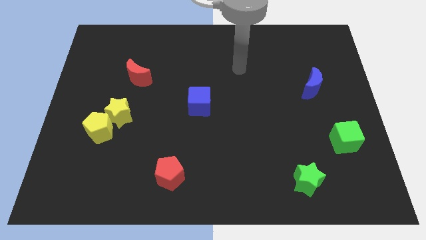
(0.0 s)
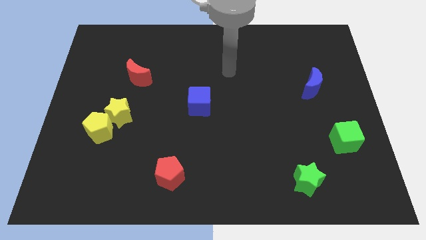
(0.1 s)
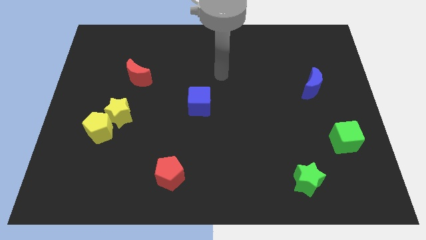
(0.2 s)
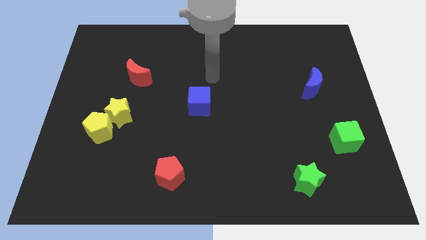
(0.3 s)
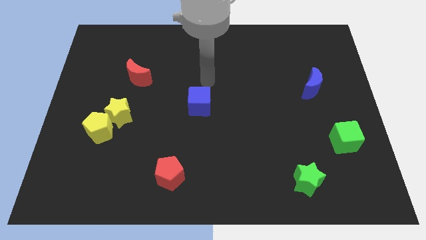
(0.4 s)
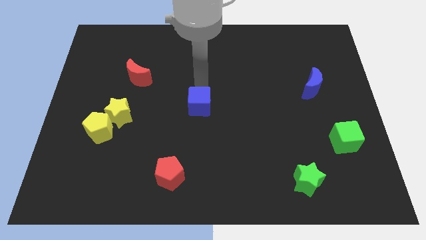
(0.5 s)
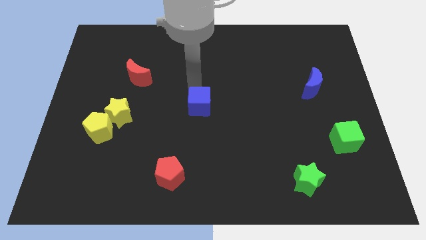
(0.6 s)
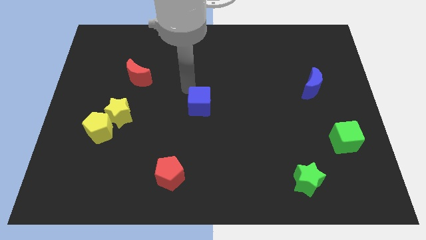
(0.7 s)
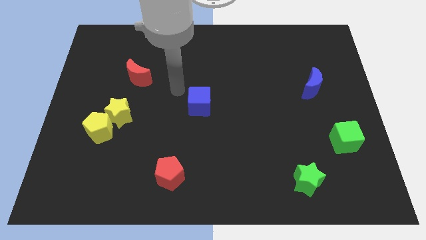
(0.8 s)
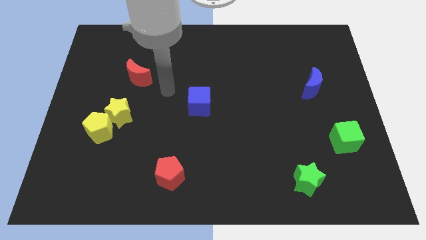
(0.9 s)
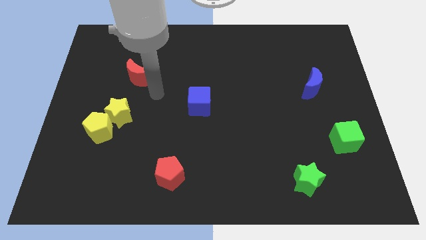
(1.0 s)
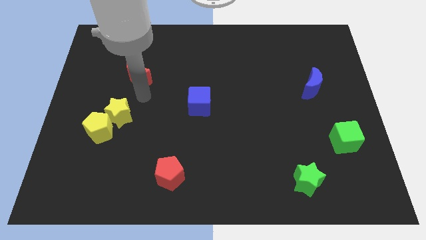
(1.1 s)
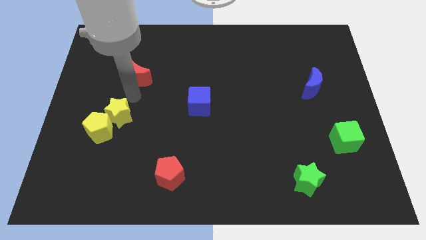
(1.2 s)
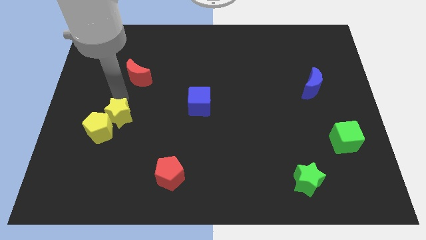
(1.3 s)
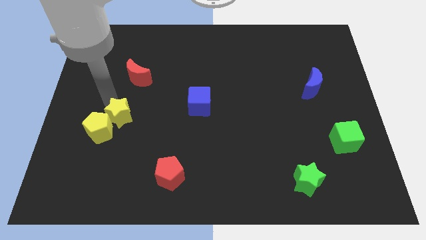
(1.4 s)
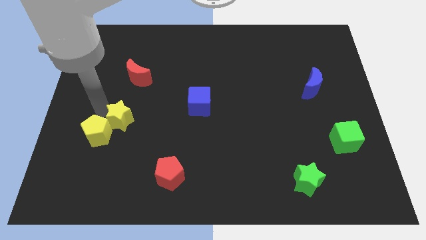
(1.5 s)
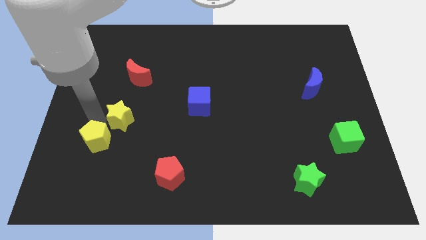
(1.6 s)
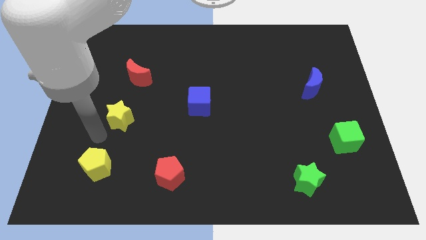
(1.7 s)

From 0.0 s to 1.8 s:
separate the yellow star from the yellow pentagon

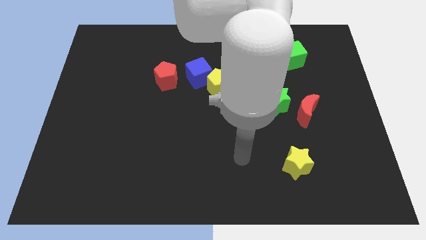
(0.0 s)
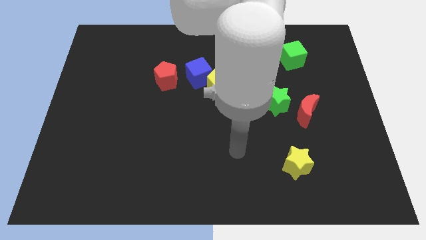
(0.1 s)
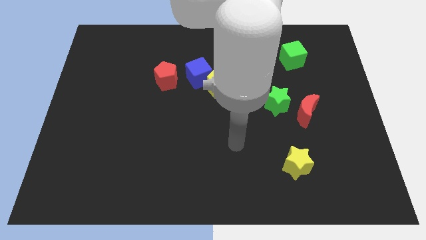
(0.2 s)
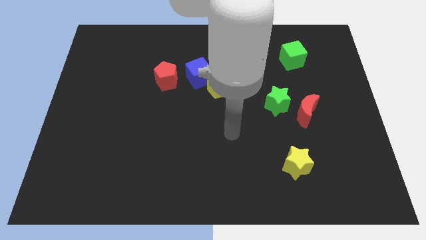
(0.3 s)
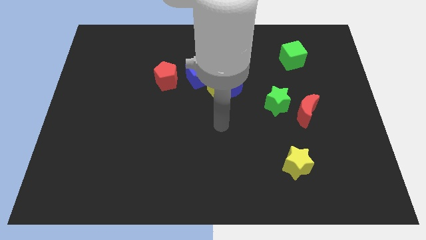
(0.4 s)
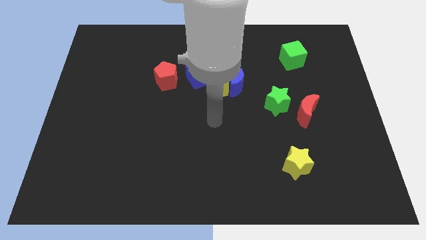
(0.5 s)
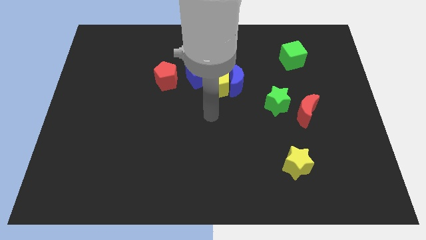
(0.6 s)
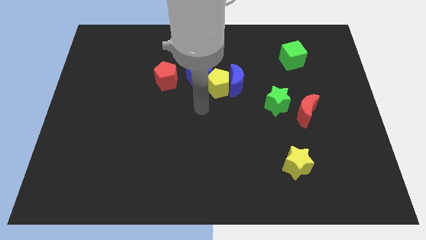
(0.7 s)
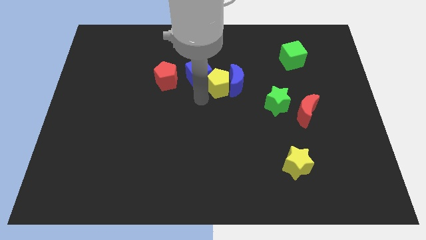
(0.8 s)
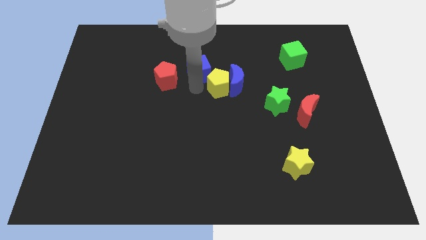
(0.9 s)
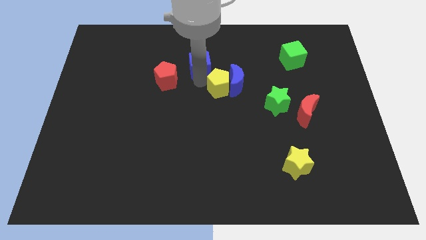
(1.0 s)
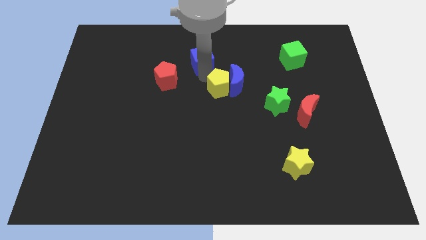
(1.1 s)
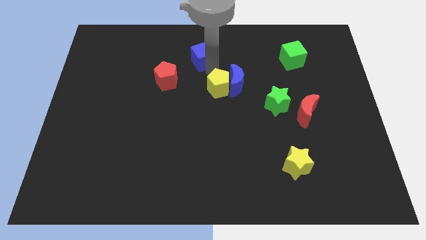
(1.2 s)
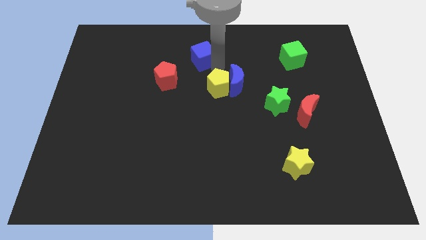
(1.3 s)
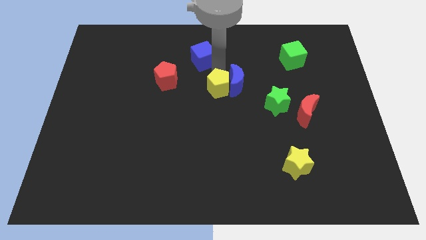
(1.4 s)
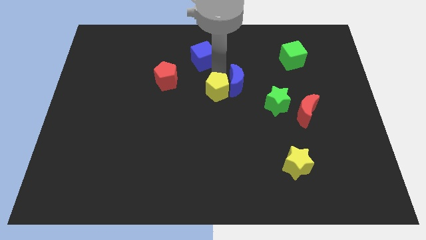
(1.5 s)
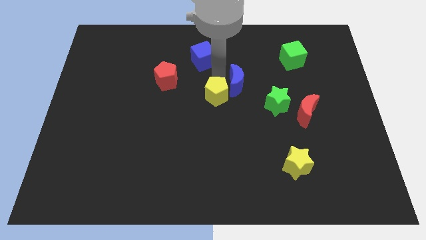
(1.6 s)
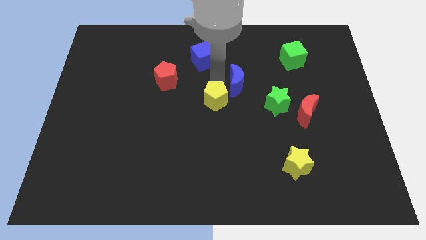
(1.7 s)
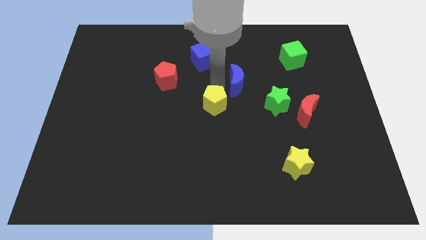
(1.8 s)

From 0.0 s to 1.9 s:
separate the yellow pentagon from the blue moon and blue cube

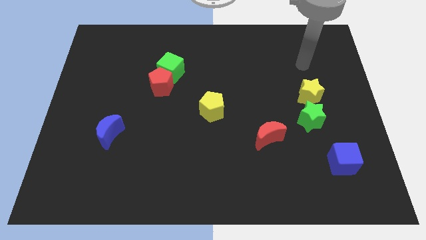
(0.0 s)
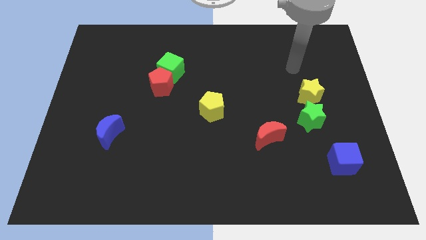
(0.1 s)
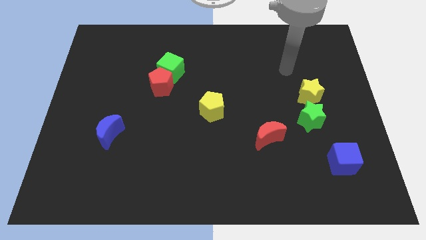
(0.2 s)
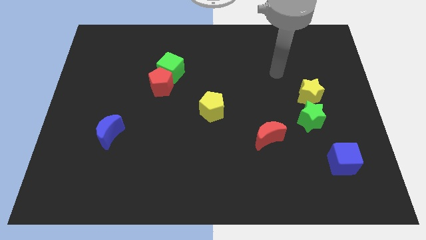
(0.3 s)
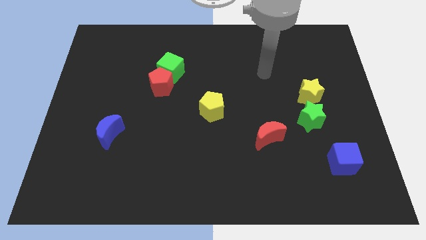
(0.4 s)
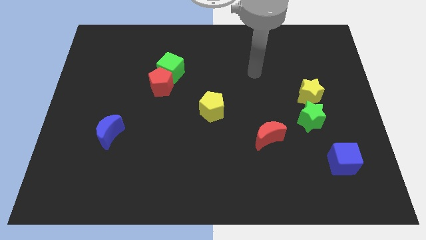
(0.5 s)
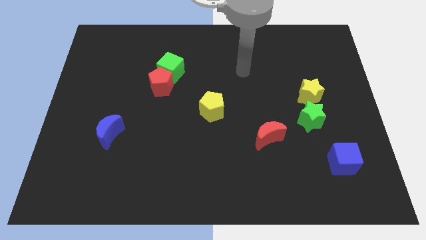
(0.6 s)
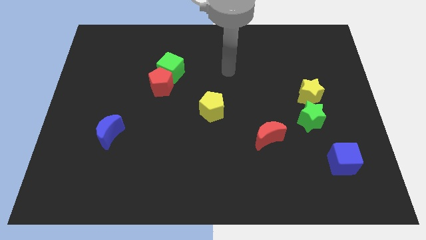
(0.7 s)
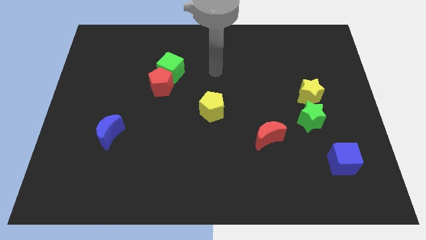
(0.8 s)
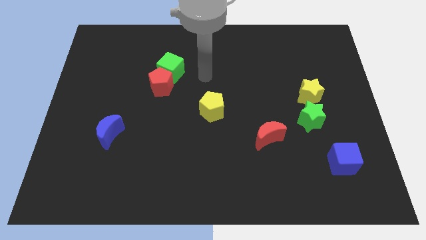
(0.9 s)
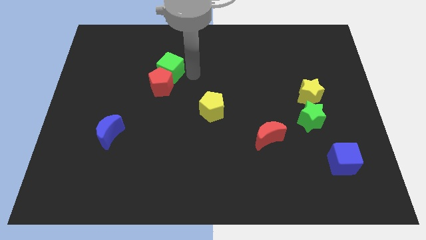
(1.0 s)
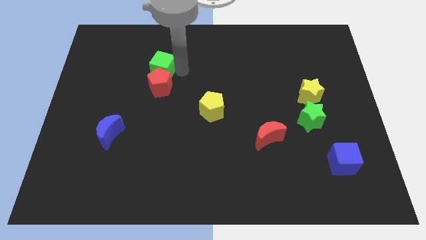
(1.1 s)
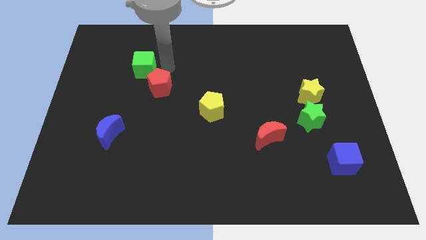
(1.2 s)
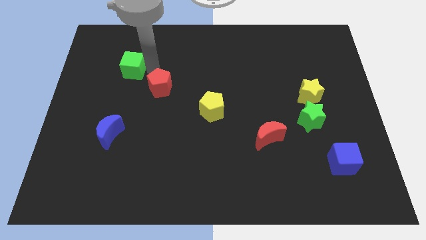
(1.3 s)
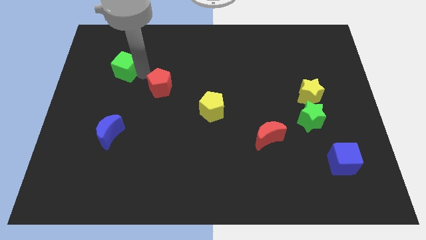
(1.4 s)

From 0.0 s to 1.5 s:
separate the red pentagon from the green cube

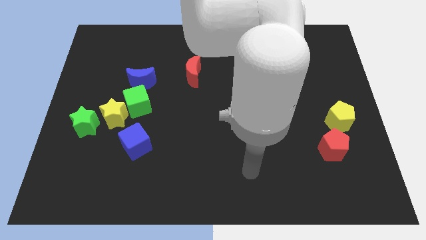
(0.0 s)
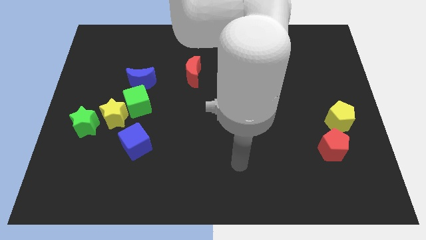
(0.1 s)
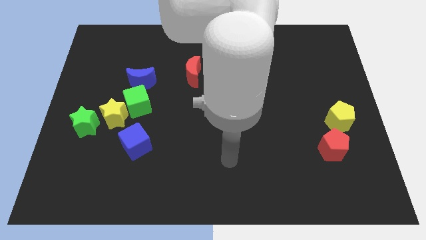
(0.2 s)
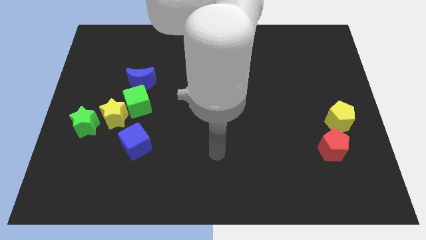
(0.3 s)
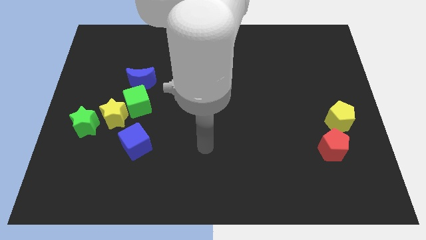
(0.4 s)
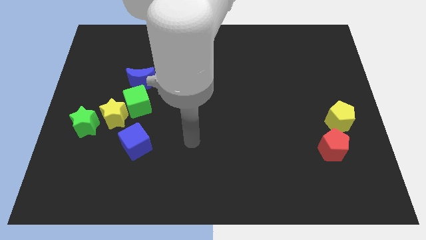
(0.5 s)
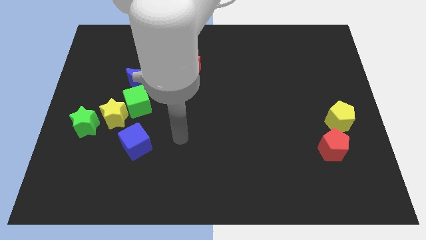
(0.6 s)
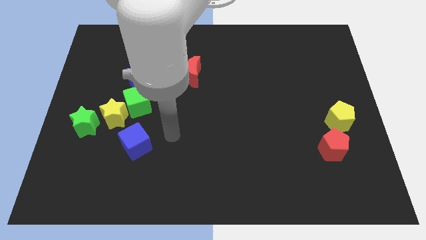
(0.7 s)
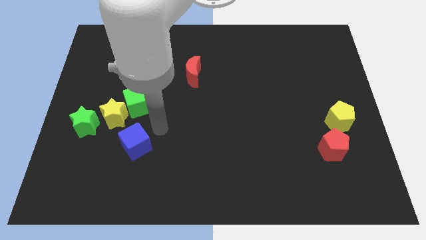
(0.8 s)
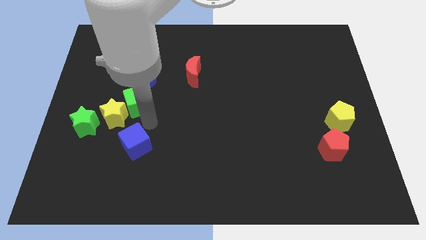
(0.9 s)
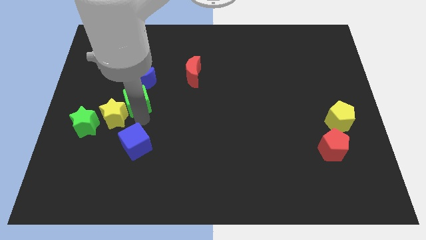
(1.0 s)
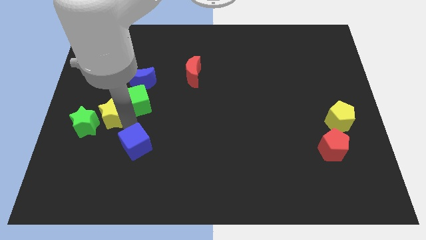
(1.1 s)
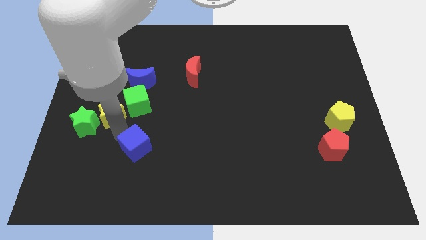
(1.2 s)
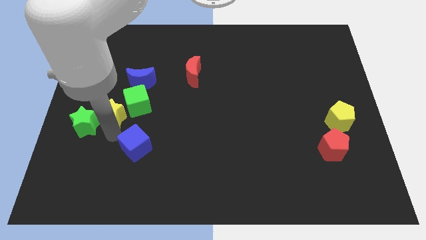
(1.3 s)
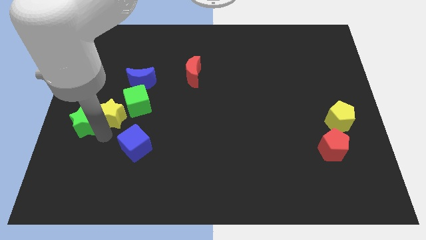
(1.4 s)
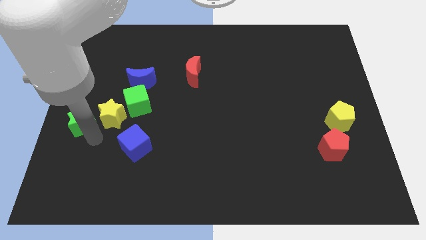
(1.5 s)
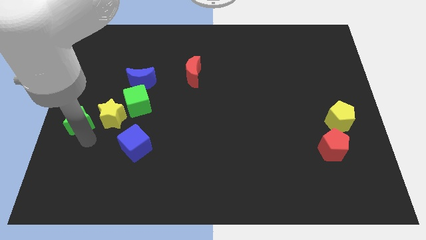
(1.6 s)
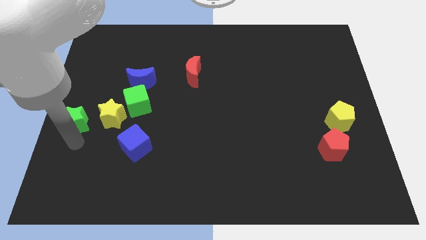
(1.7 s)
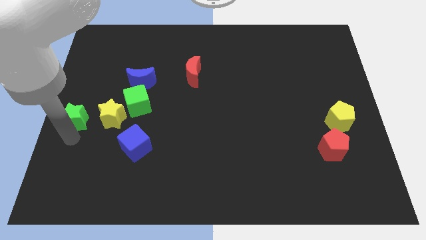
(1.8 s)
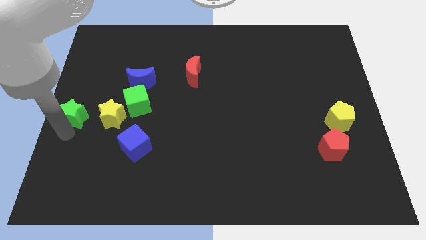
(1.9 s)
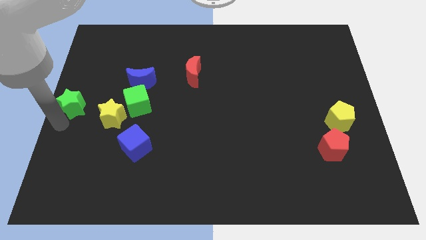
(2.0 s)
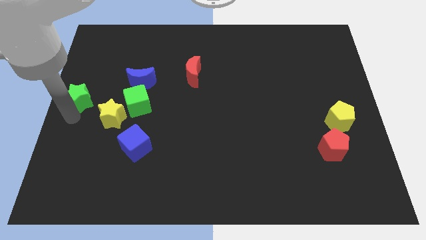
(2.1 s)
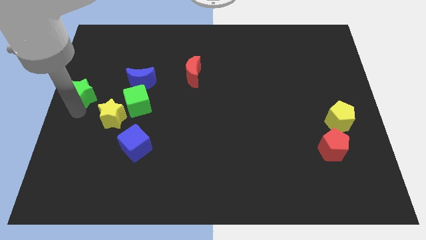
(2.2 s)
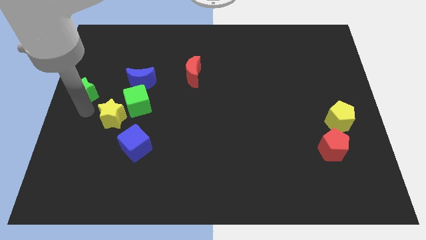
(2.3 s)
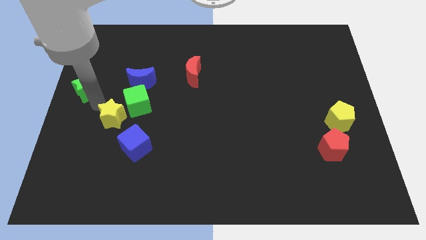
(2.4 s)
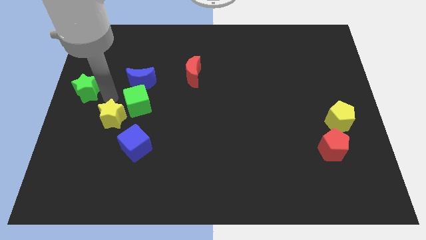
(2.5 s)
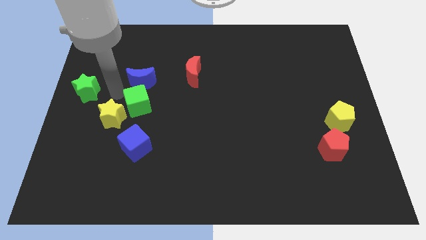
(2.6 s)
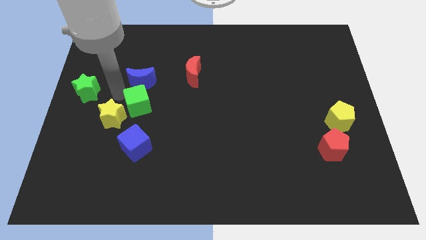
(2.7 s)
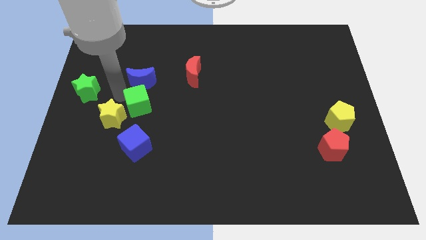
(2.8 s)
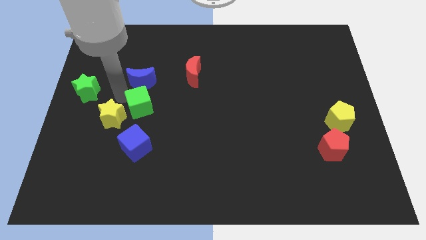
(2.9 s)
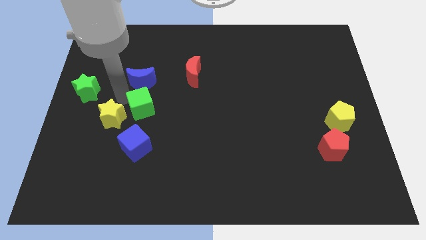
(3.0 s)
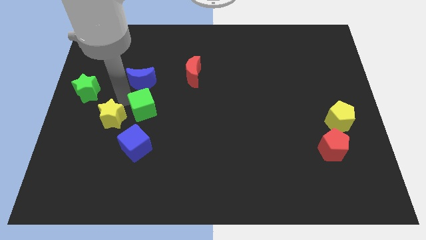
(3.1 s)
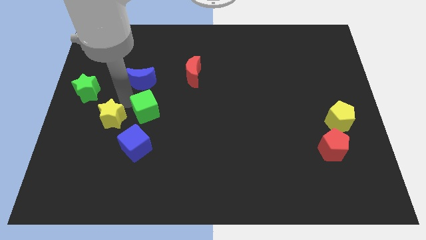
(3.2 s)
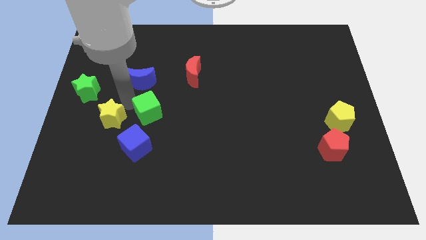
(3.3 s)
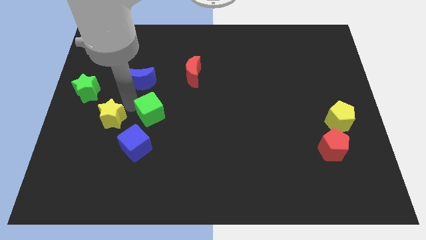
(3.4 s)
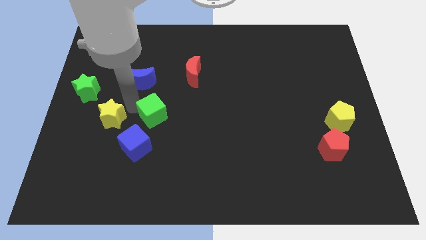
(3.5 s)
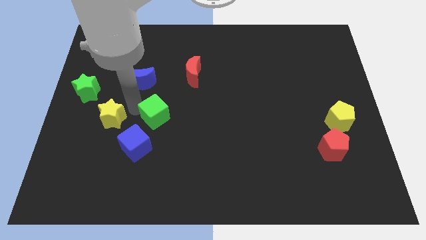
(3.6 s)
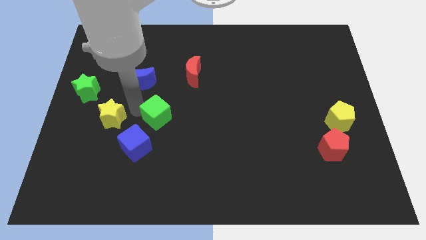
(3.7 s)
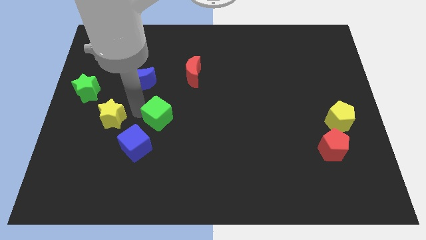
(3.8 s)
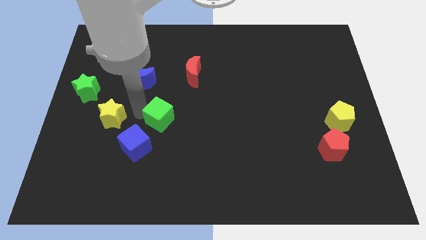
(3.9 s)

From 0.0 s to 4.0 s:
pull the green cube apart from the yellow star and blue moon

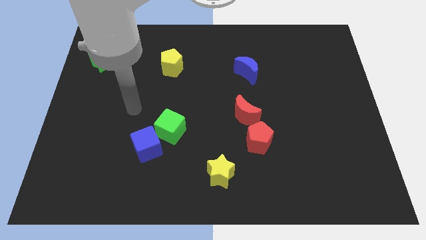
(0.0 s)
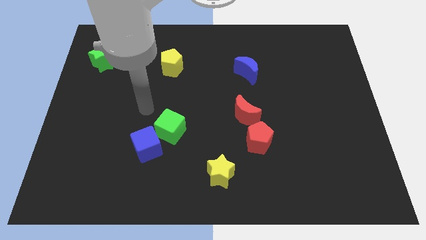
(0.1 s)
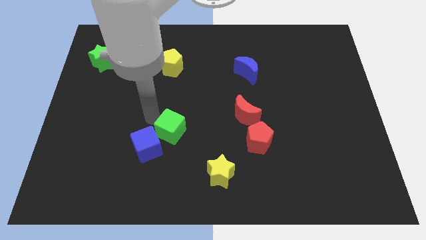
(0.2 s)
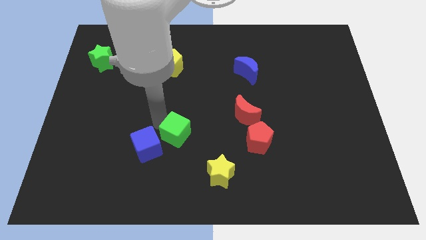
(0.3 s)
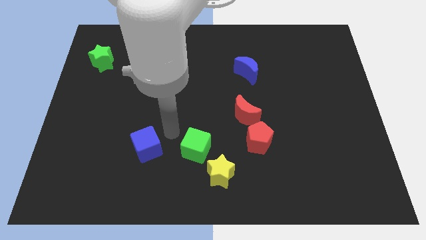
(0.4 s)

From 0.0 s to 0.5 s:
move the blue cube away from the green cube
